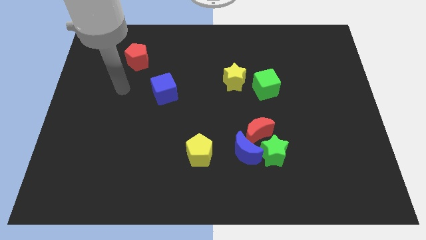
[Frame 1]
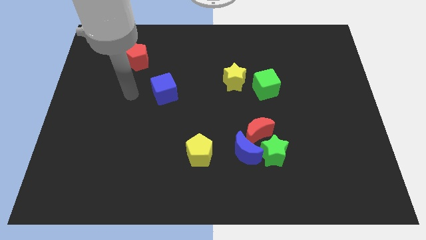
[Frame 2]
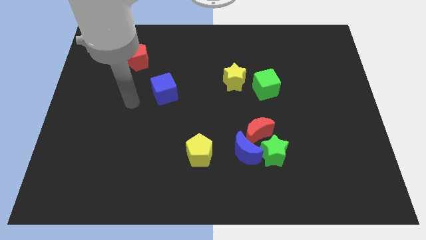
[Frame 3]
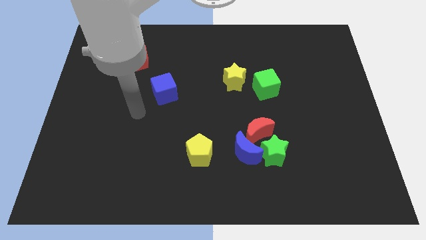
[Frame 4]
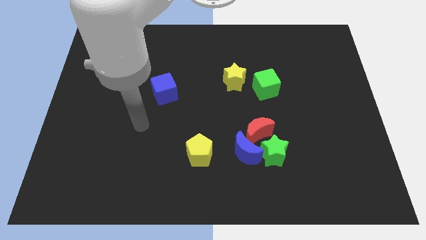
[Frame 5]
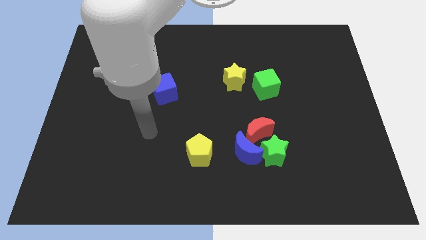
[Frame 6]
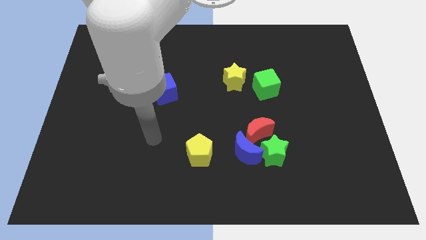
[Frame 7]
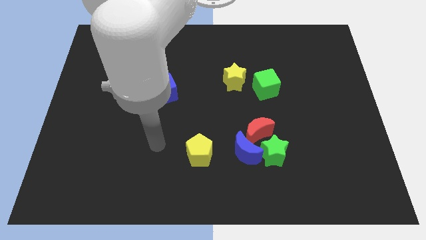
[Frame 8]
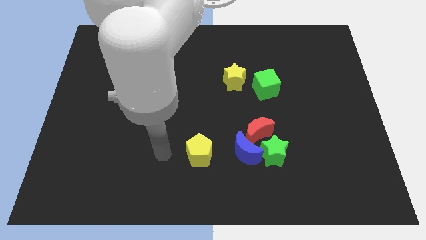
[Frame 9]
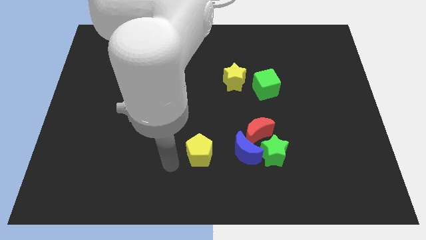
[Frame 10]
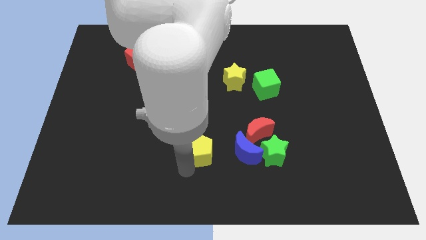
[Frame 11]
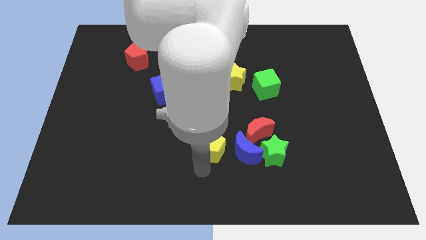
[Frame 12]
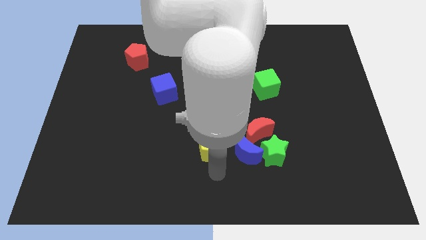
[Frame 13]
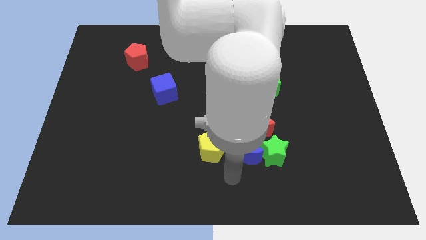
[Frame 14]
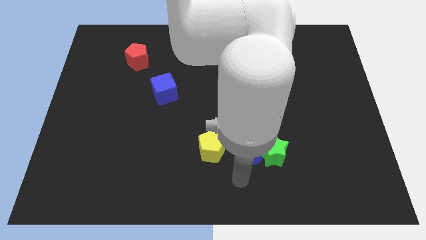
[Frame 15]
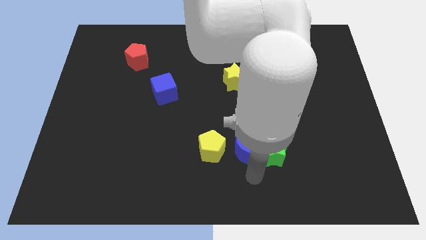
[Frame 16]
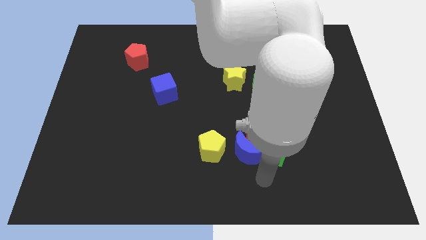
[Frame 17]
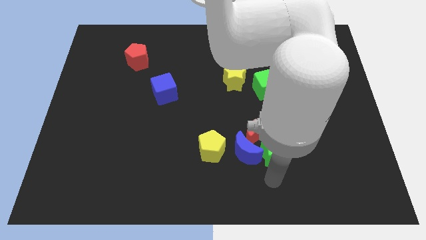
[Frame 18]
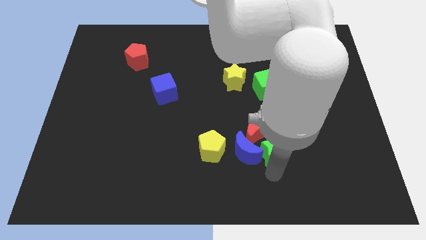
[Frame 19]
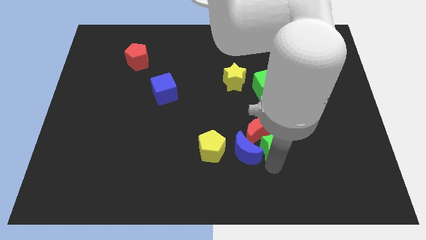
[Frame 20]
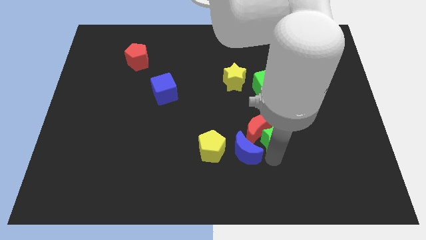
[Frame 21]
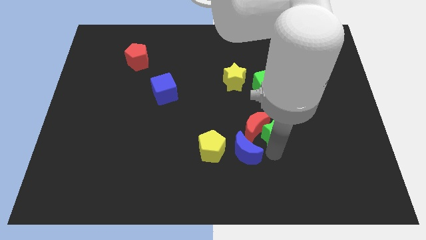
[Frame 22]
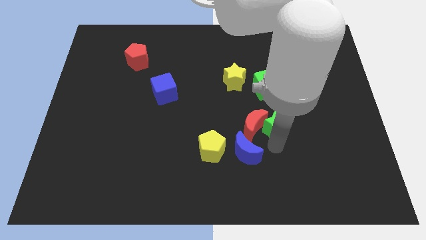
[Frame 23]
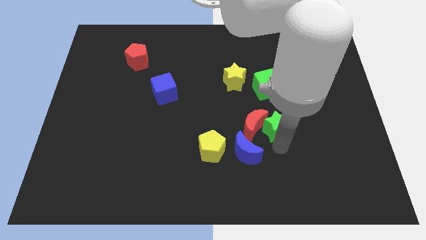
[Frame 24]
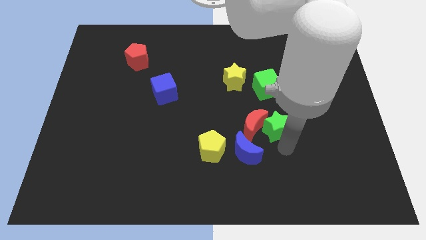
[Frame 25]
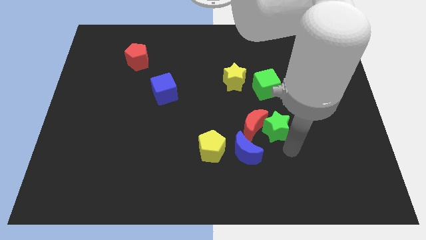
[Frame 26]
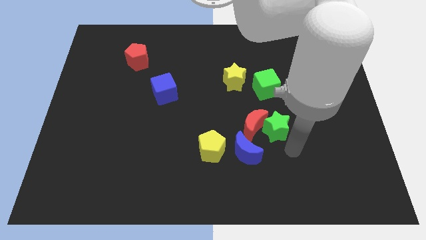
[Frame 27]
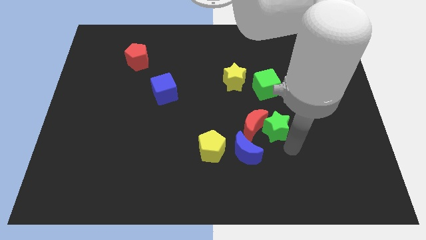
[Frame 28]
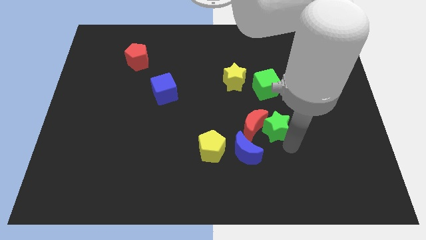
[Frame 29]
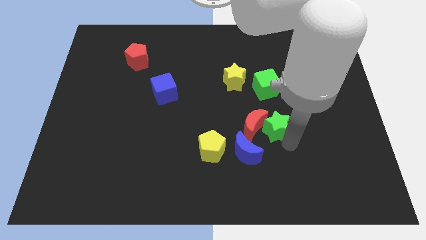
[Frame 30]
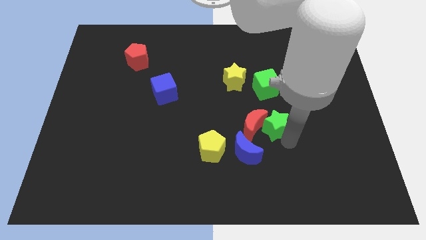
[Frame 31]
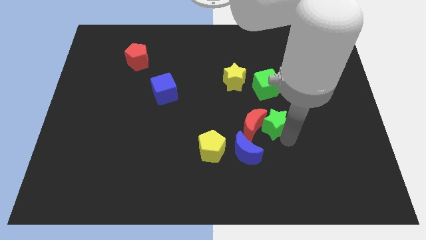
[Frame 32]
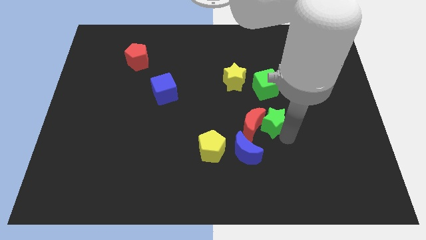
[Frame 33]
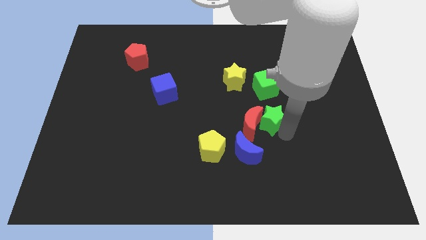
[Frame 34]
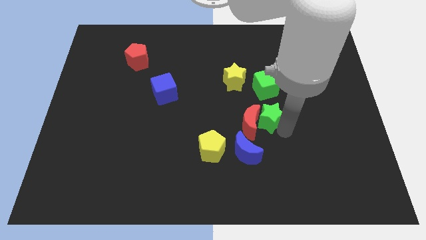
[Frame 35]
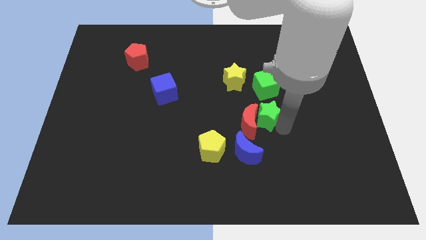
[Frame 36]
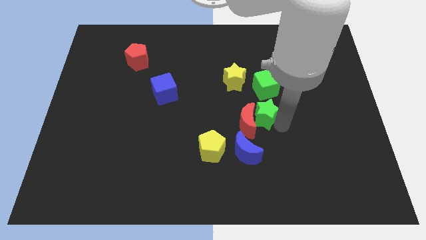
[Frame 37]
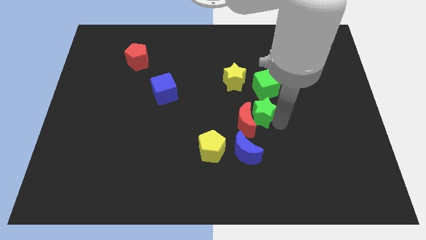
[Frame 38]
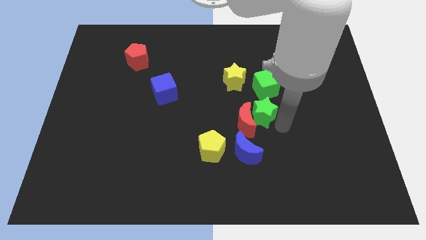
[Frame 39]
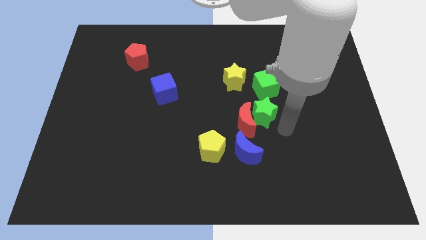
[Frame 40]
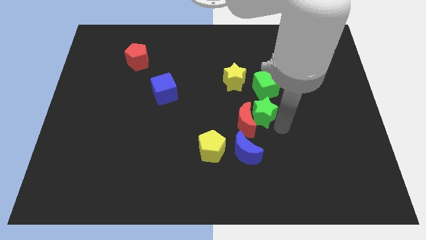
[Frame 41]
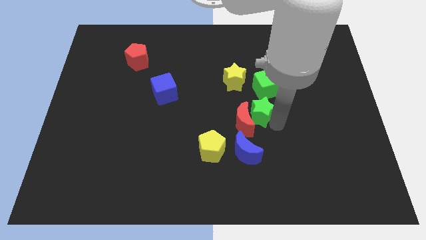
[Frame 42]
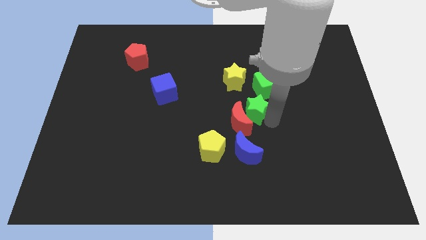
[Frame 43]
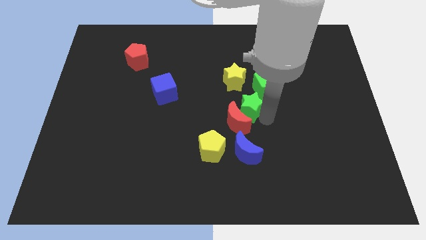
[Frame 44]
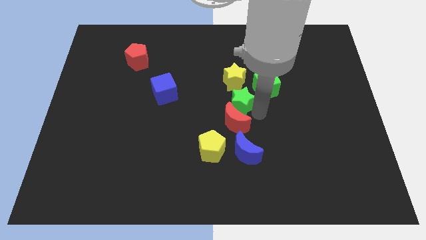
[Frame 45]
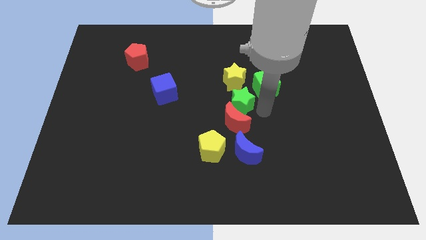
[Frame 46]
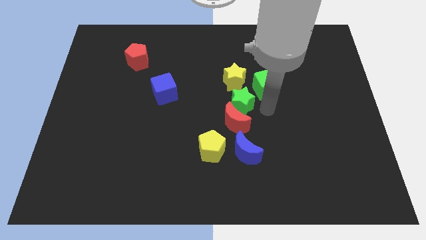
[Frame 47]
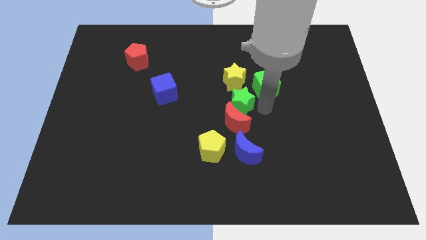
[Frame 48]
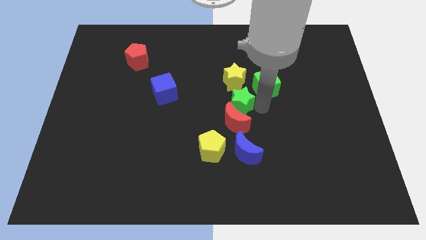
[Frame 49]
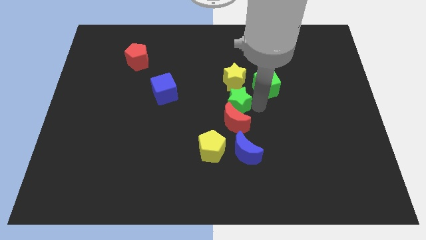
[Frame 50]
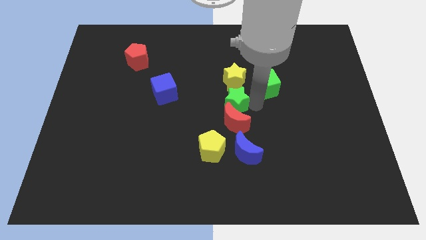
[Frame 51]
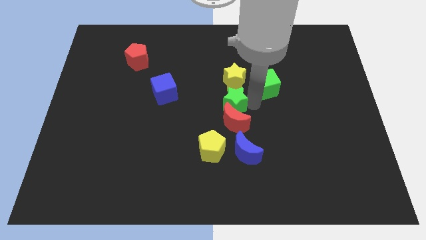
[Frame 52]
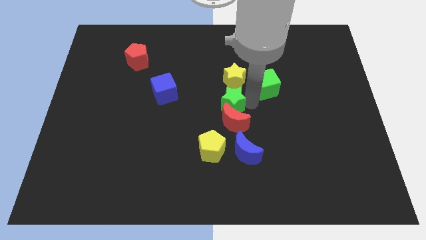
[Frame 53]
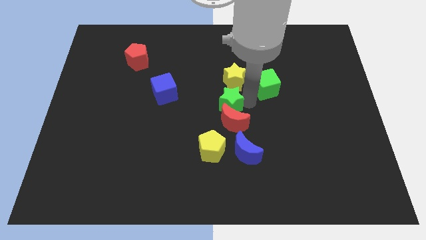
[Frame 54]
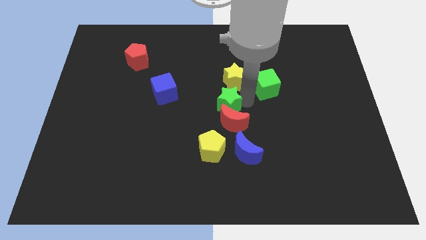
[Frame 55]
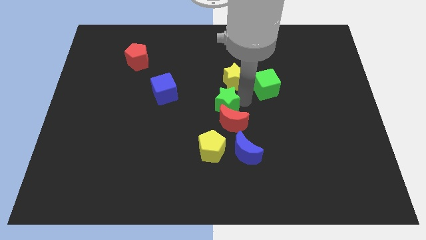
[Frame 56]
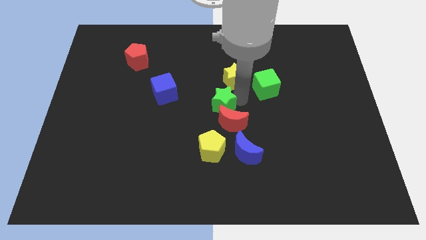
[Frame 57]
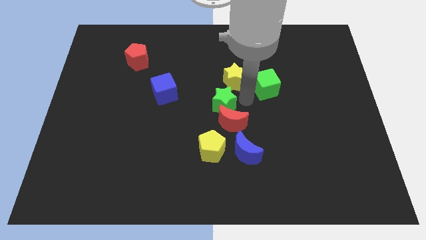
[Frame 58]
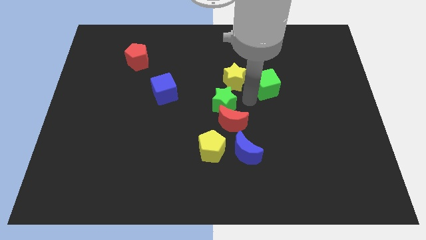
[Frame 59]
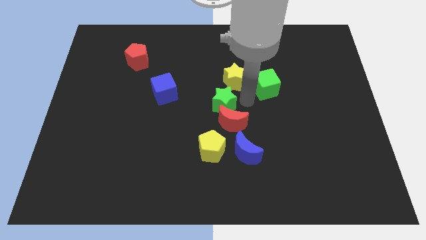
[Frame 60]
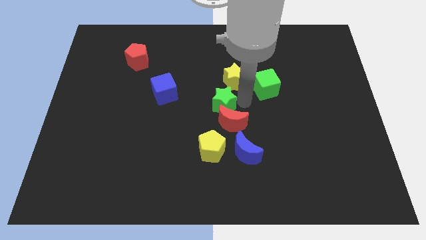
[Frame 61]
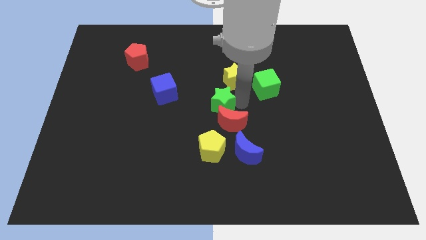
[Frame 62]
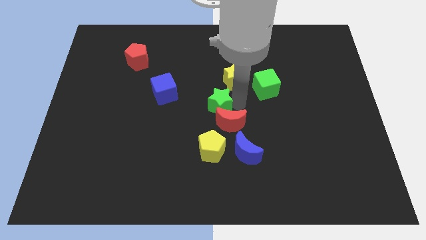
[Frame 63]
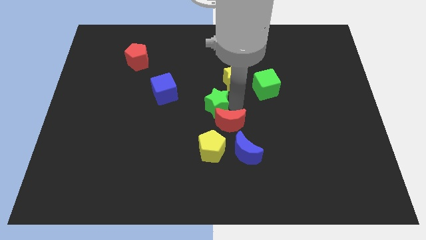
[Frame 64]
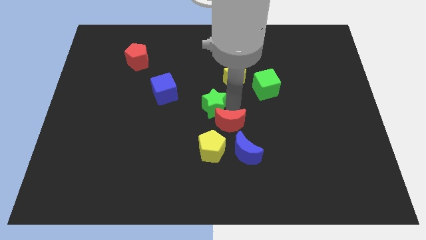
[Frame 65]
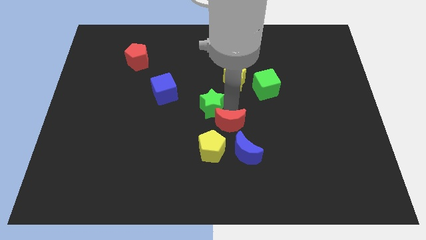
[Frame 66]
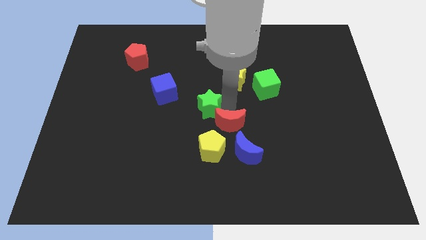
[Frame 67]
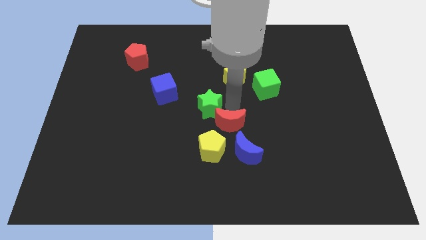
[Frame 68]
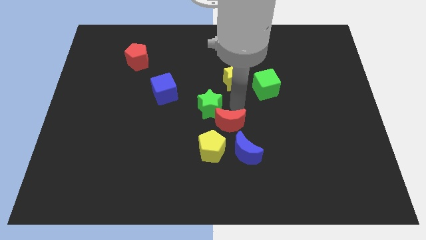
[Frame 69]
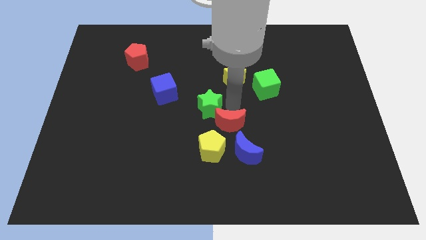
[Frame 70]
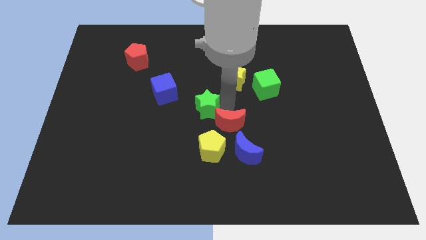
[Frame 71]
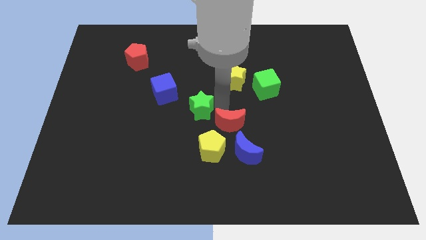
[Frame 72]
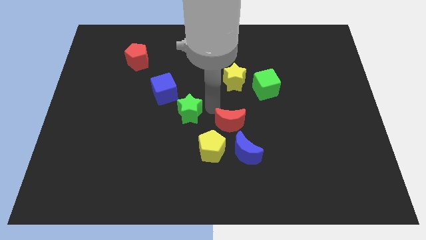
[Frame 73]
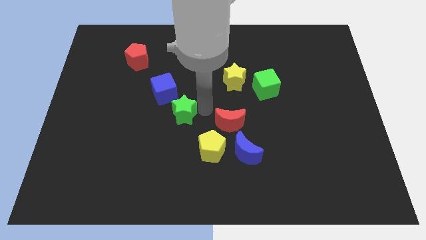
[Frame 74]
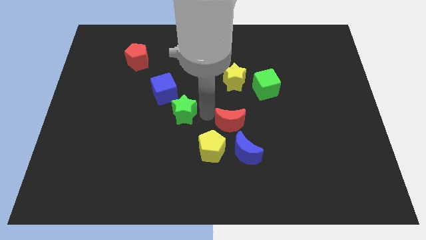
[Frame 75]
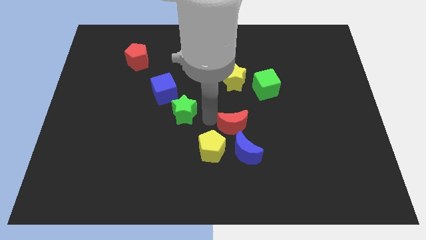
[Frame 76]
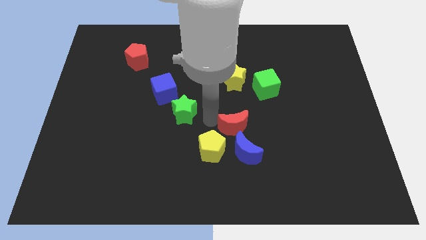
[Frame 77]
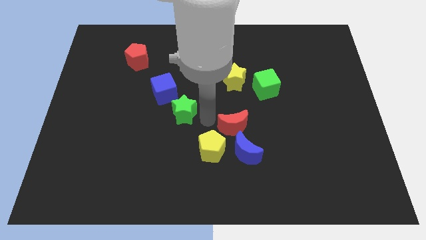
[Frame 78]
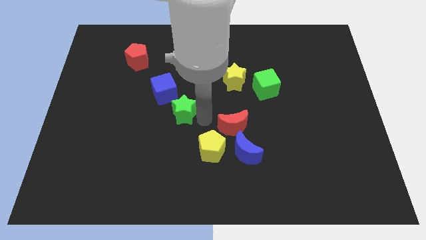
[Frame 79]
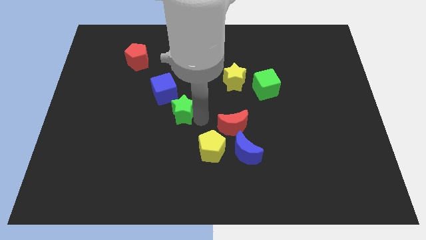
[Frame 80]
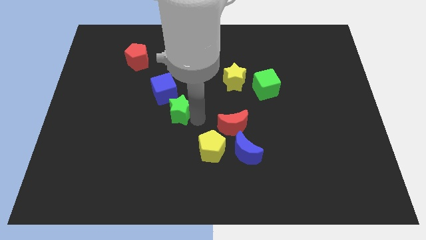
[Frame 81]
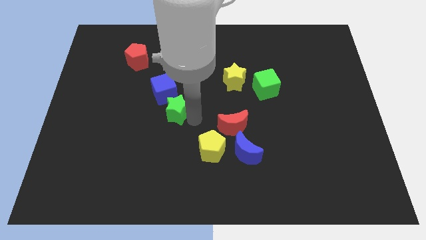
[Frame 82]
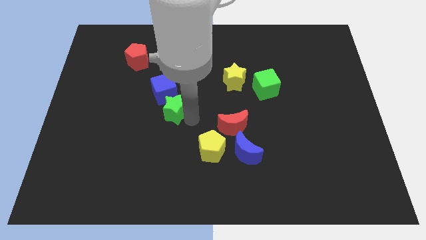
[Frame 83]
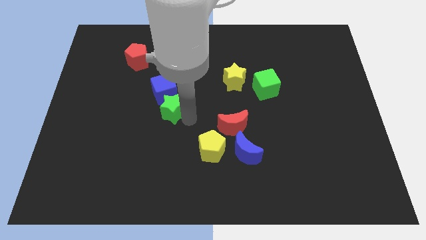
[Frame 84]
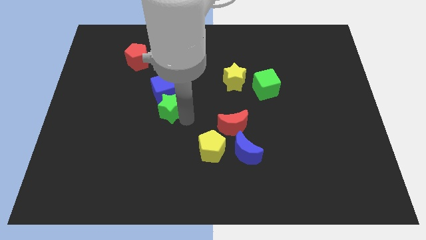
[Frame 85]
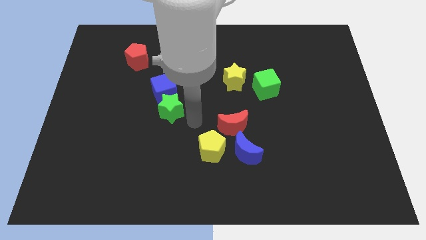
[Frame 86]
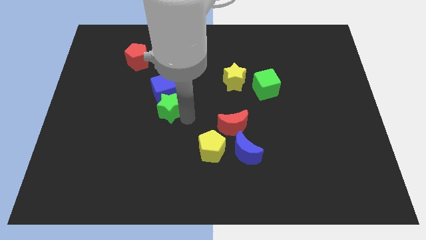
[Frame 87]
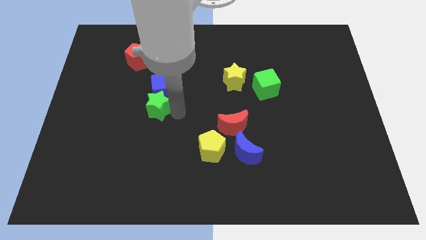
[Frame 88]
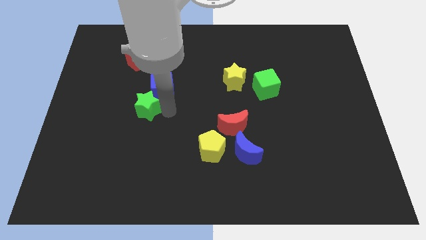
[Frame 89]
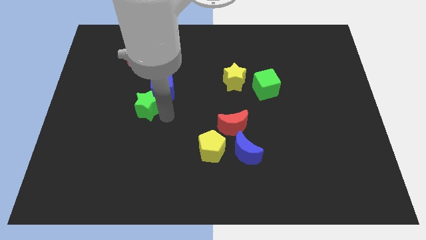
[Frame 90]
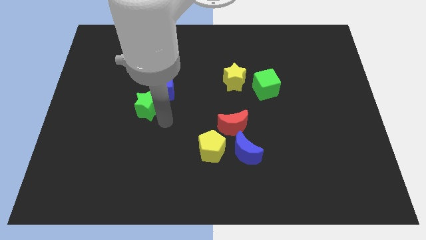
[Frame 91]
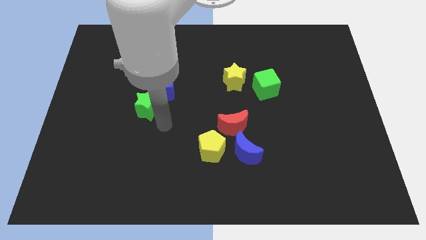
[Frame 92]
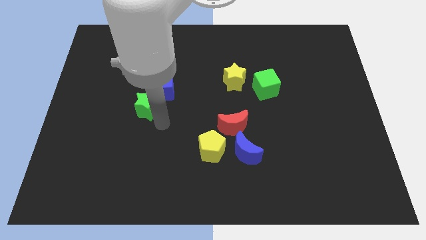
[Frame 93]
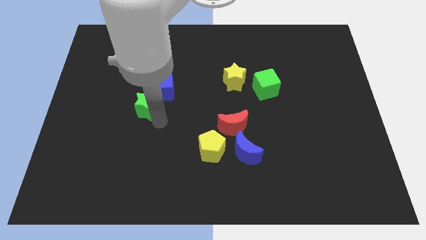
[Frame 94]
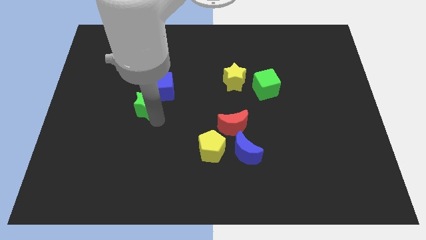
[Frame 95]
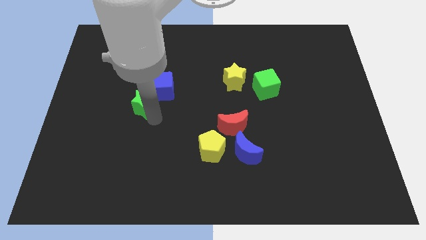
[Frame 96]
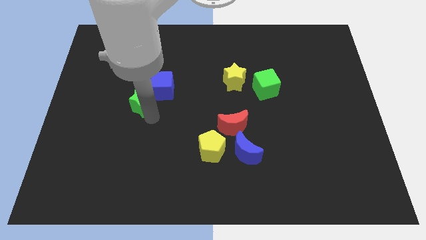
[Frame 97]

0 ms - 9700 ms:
push the green star to the bottom of the red pentagon
